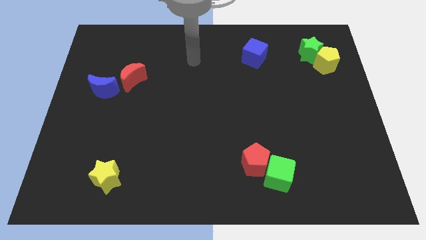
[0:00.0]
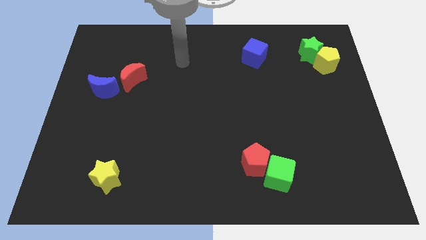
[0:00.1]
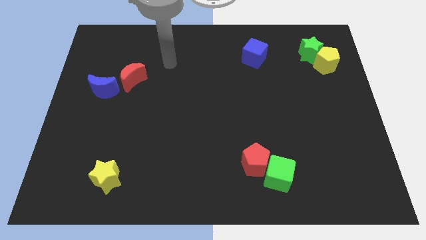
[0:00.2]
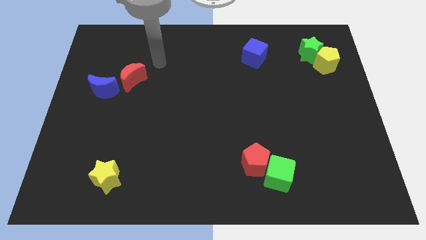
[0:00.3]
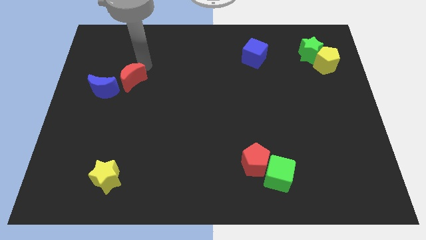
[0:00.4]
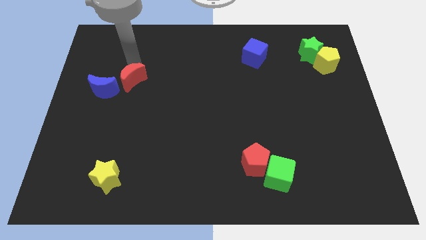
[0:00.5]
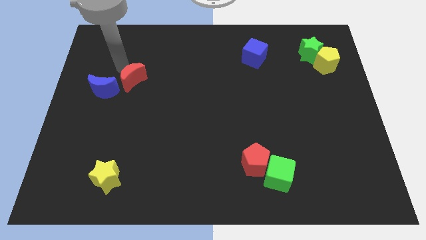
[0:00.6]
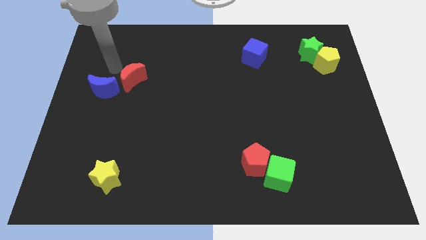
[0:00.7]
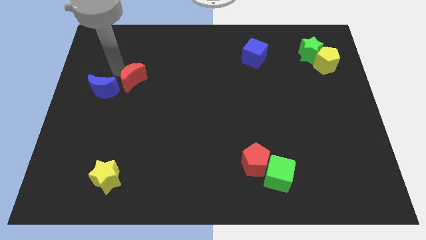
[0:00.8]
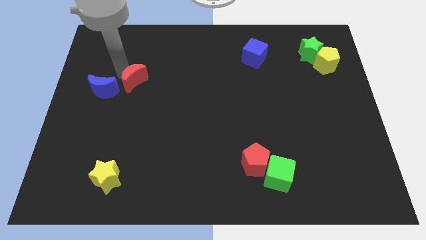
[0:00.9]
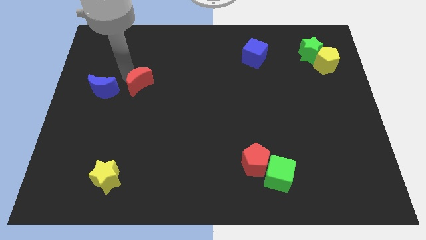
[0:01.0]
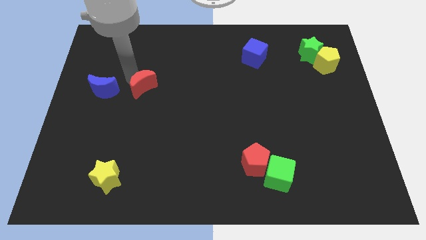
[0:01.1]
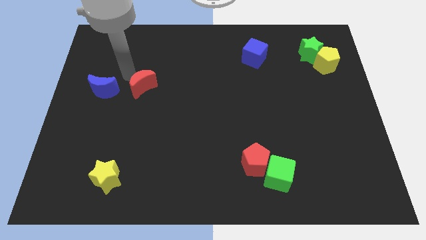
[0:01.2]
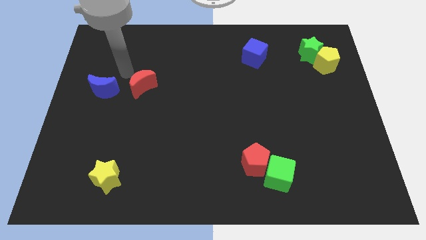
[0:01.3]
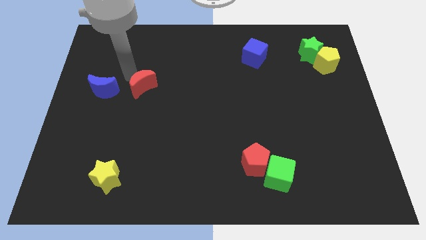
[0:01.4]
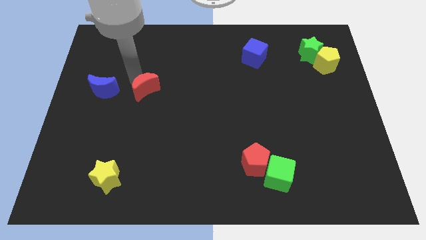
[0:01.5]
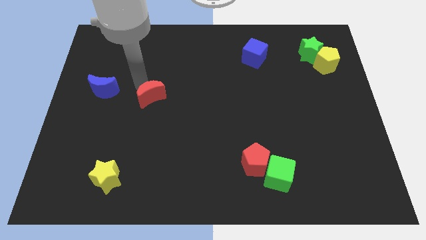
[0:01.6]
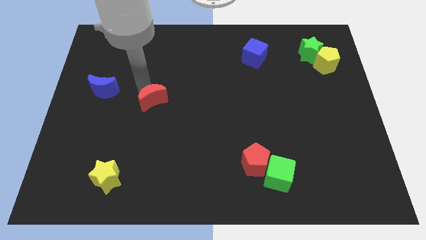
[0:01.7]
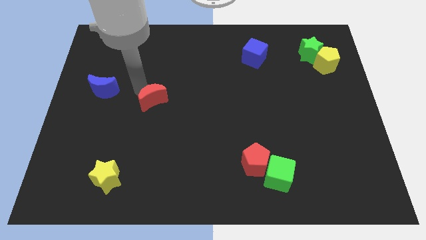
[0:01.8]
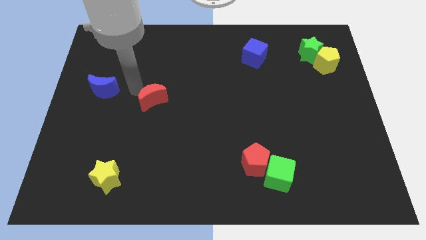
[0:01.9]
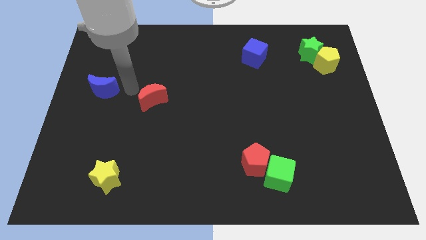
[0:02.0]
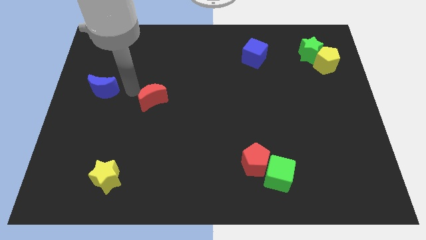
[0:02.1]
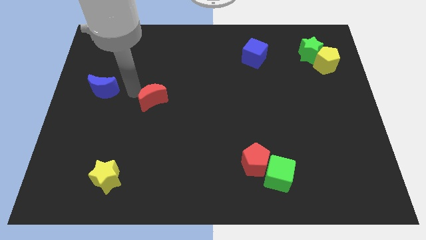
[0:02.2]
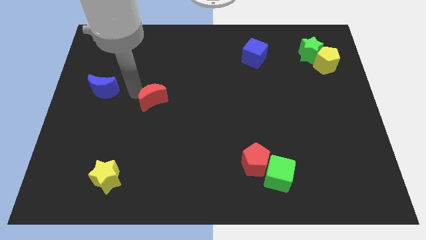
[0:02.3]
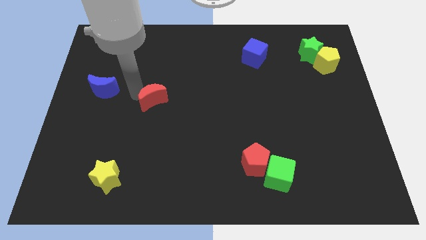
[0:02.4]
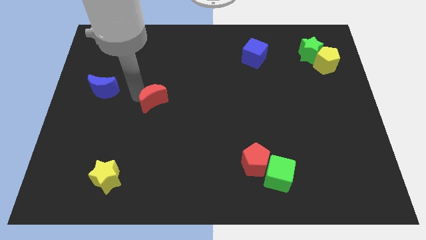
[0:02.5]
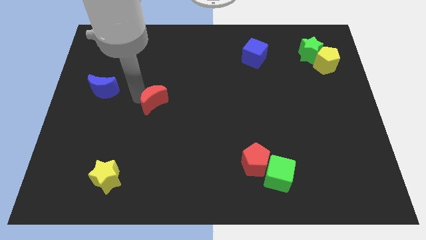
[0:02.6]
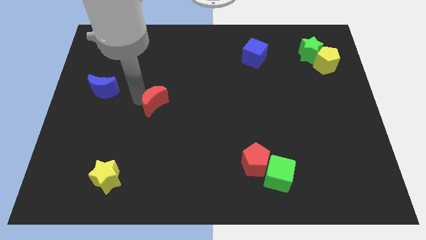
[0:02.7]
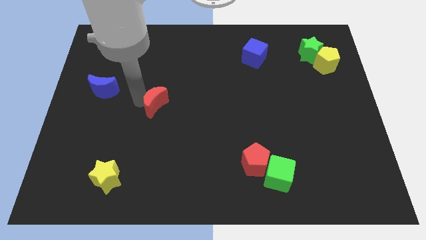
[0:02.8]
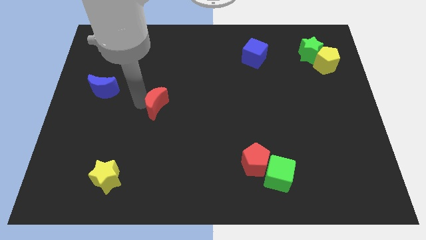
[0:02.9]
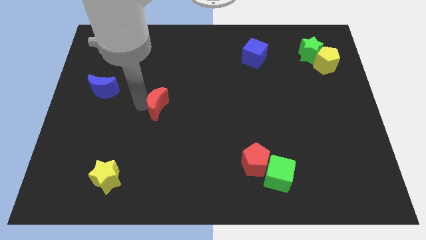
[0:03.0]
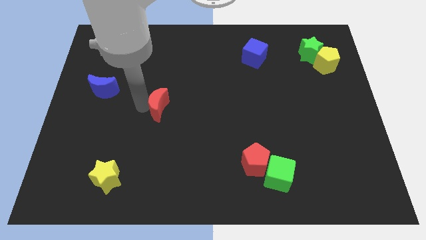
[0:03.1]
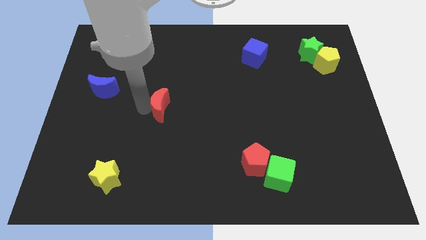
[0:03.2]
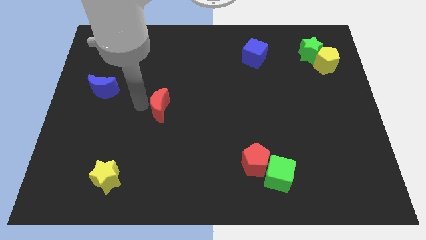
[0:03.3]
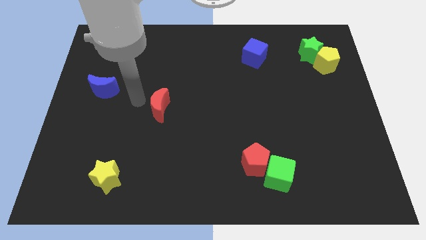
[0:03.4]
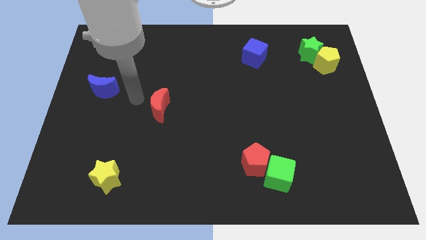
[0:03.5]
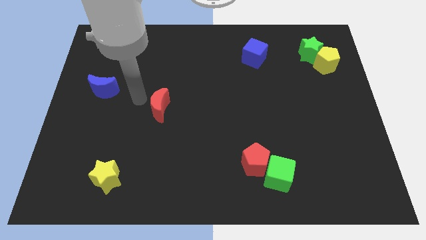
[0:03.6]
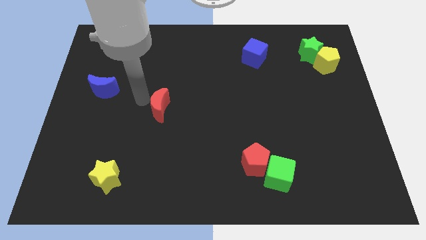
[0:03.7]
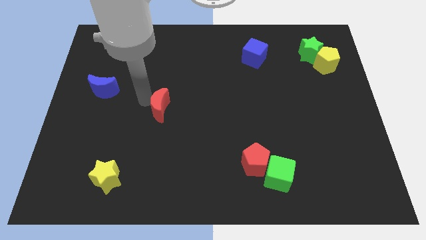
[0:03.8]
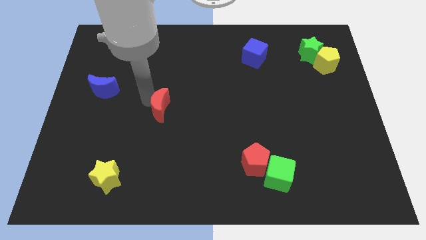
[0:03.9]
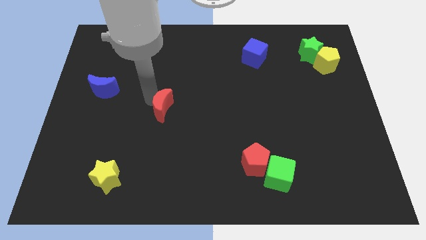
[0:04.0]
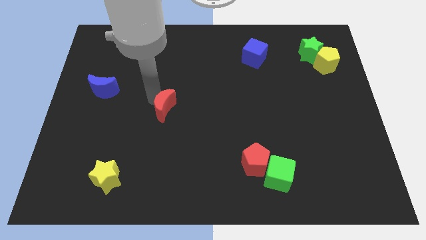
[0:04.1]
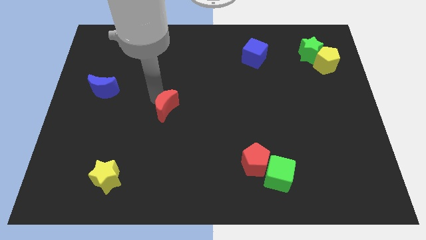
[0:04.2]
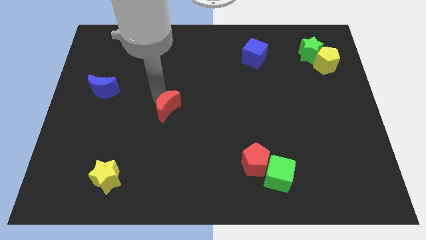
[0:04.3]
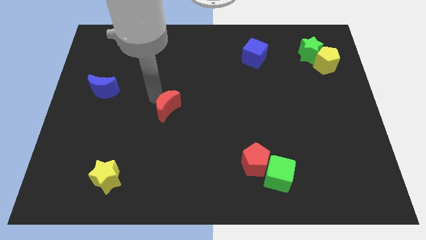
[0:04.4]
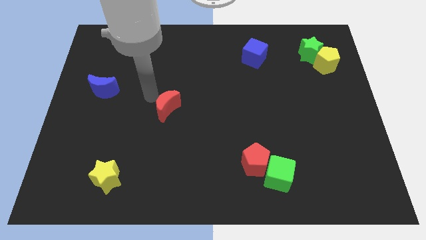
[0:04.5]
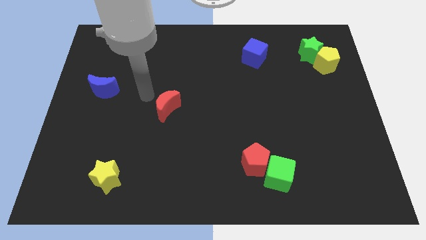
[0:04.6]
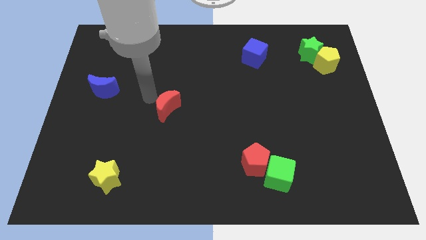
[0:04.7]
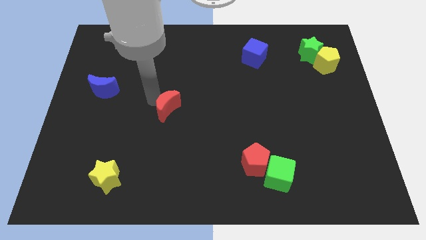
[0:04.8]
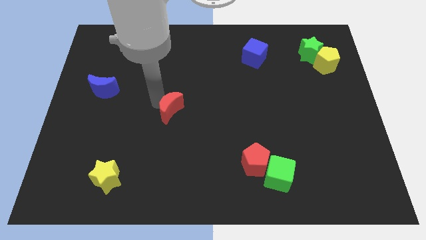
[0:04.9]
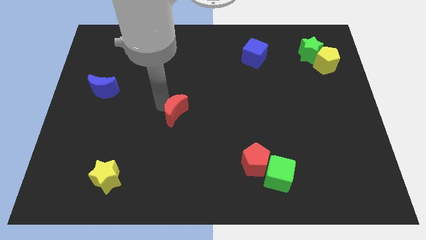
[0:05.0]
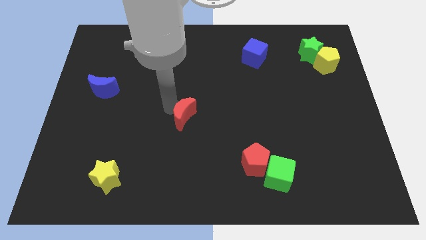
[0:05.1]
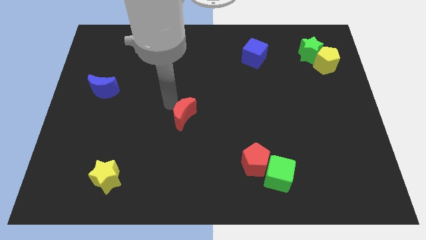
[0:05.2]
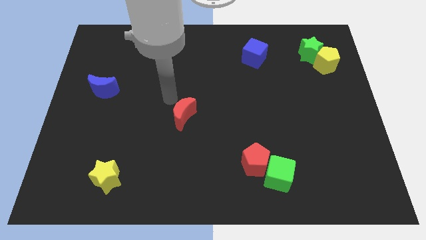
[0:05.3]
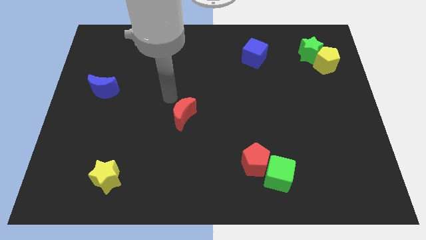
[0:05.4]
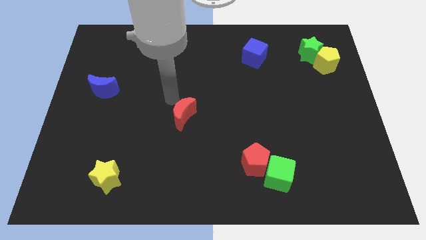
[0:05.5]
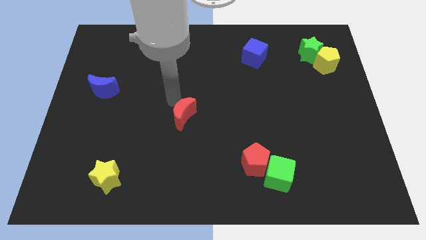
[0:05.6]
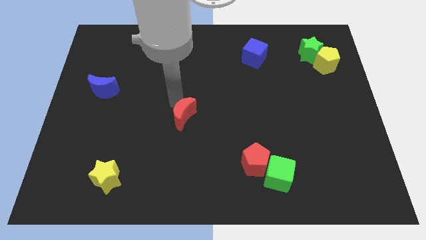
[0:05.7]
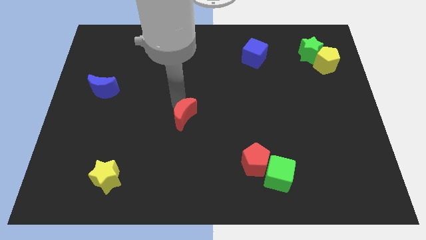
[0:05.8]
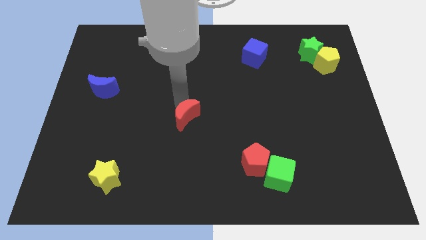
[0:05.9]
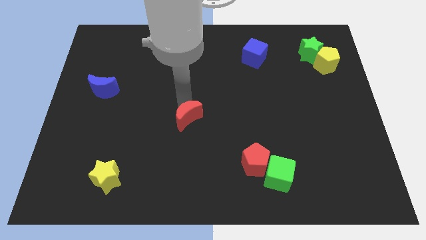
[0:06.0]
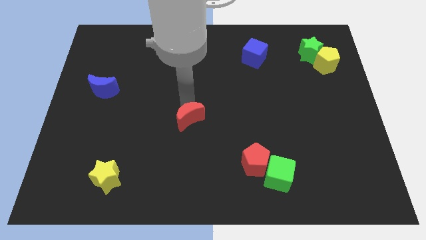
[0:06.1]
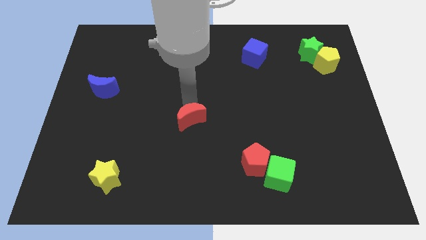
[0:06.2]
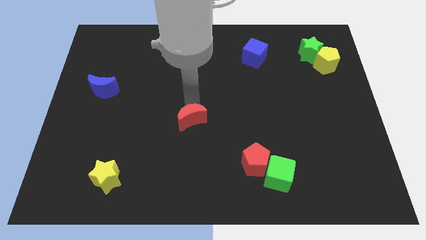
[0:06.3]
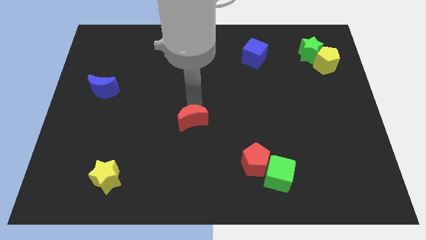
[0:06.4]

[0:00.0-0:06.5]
push the red moon downwards and then to the right

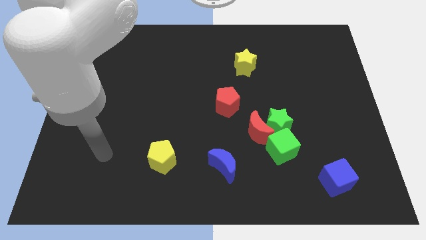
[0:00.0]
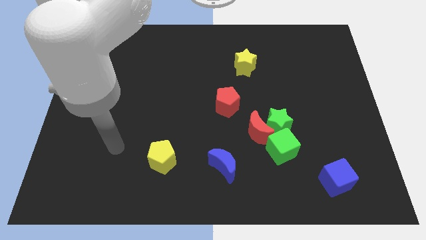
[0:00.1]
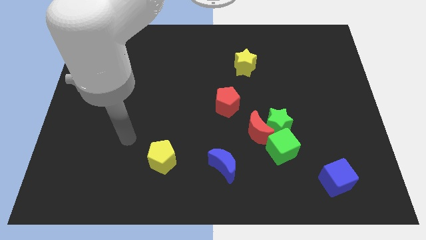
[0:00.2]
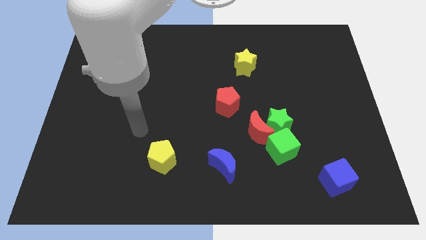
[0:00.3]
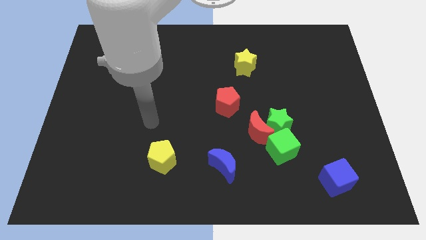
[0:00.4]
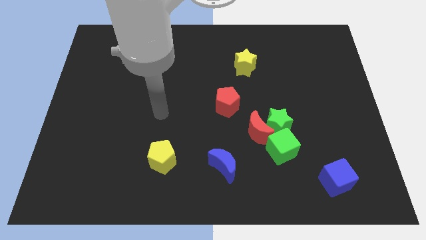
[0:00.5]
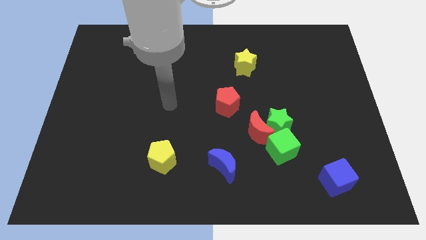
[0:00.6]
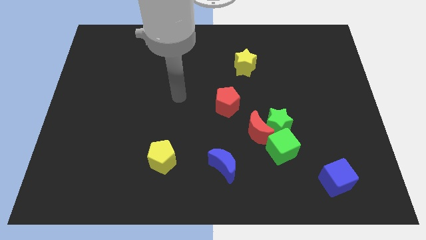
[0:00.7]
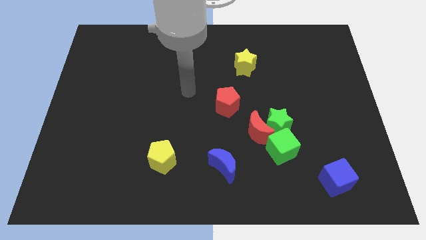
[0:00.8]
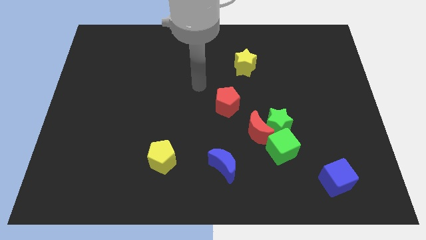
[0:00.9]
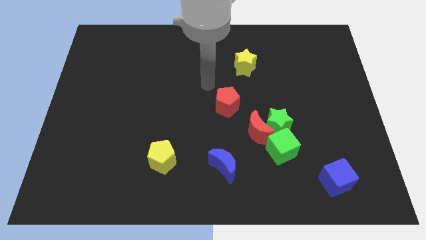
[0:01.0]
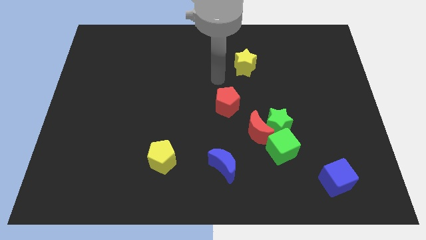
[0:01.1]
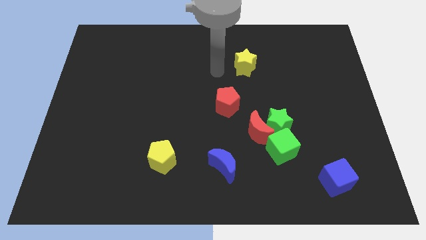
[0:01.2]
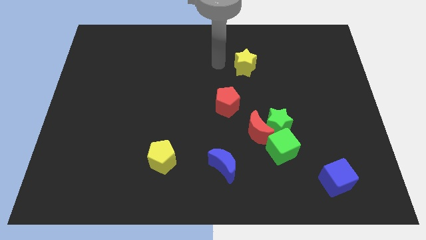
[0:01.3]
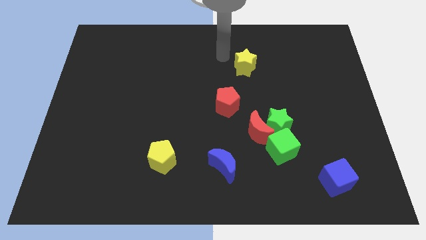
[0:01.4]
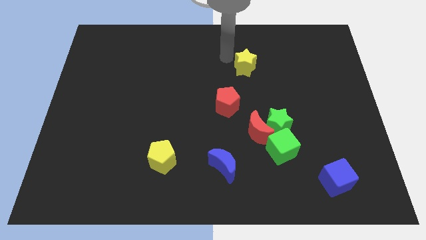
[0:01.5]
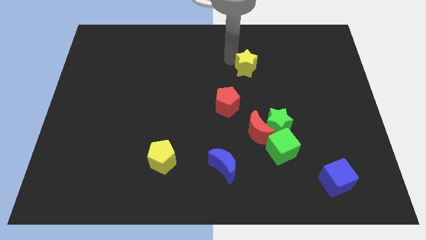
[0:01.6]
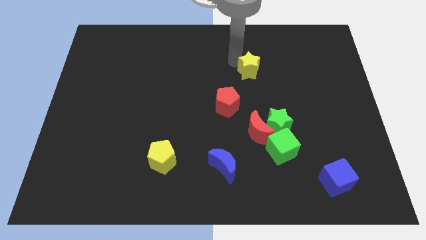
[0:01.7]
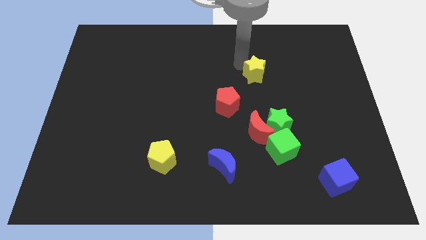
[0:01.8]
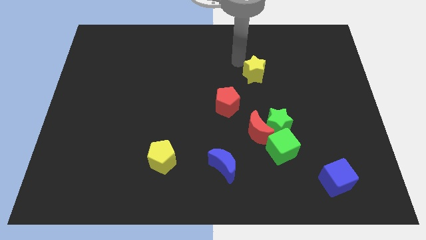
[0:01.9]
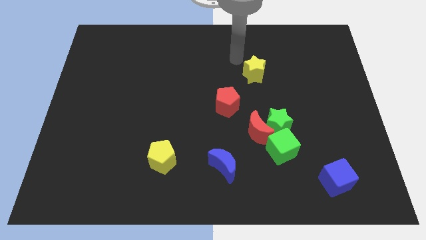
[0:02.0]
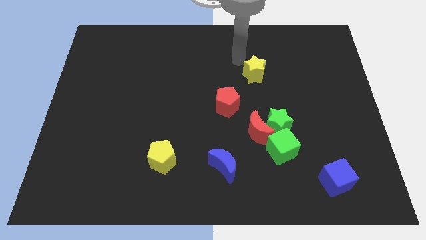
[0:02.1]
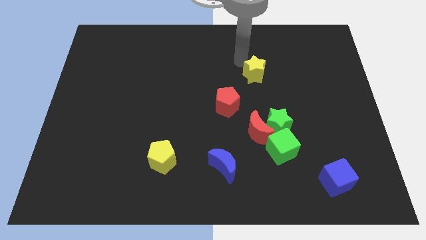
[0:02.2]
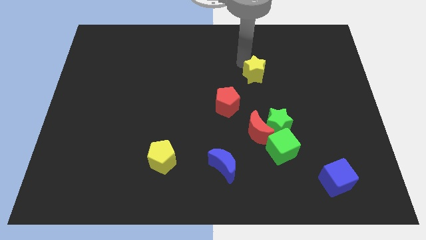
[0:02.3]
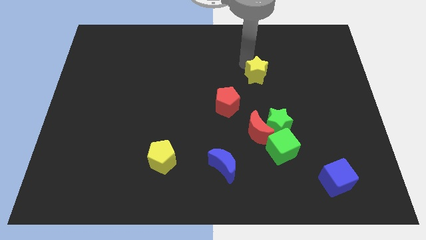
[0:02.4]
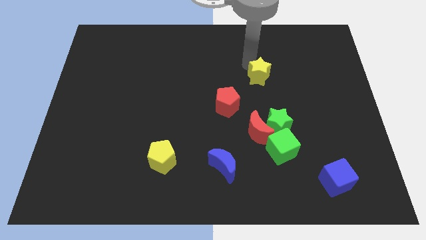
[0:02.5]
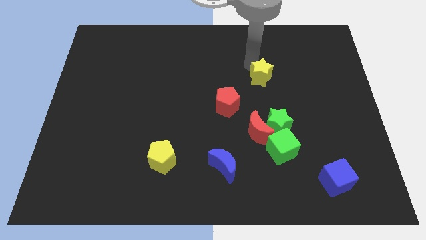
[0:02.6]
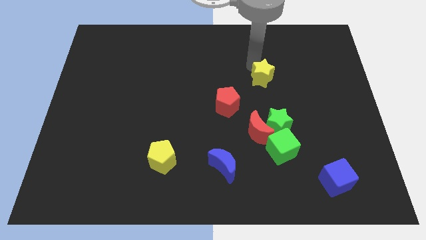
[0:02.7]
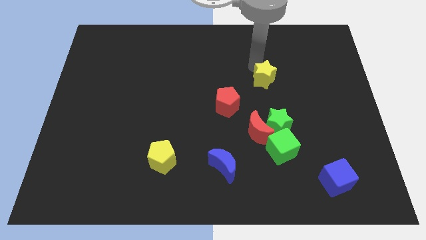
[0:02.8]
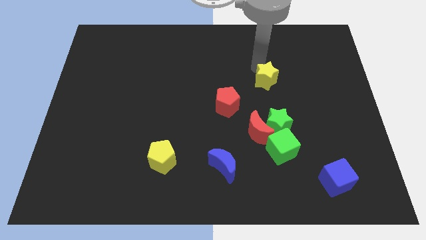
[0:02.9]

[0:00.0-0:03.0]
move the yellow star slightly diagonally down and right
